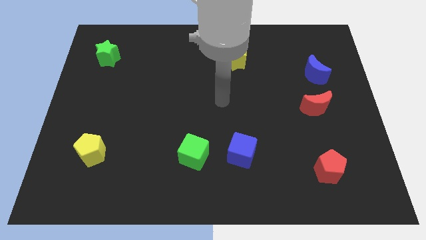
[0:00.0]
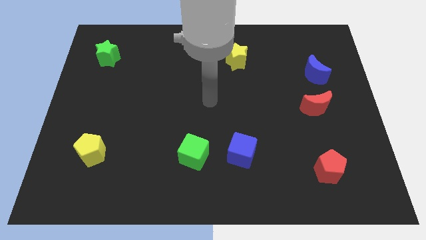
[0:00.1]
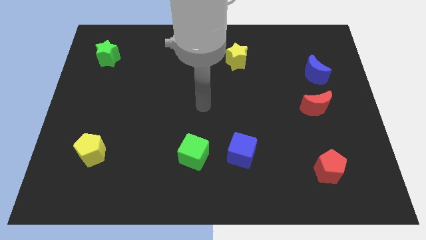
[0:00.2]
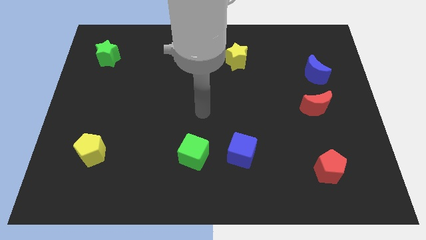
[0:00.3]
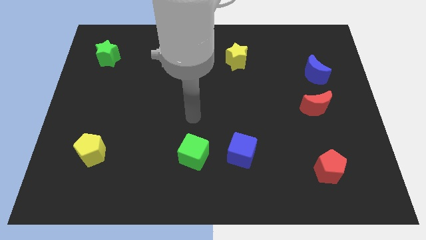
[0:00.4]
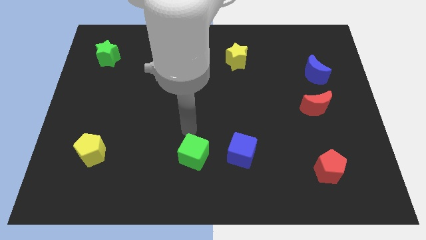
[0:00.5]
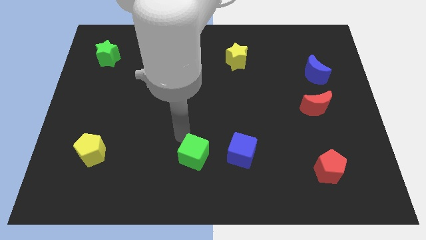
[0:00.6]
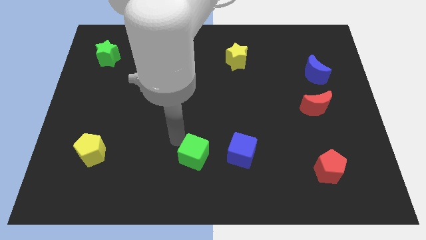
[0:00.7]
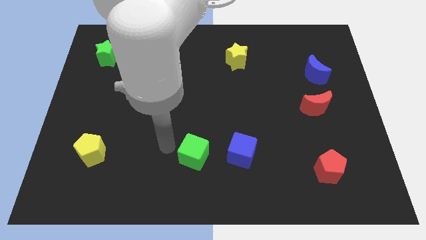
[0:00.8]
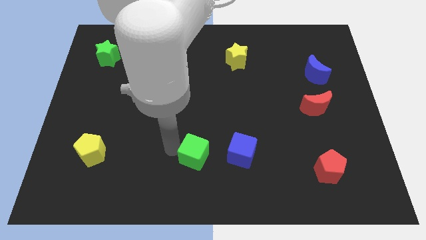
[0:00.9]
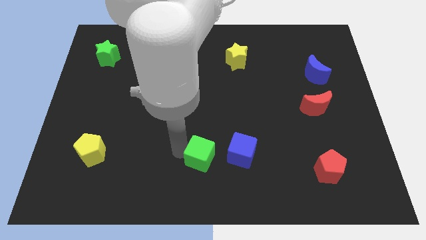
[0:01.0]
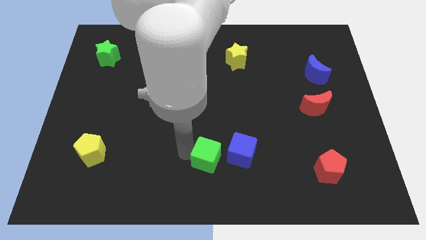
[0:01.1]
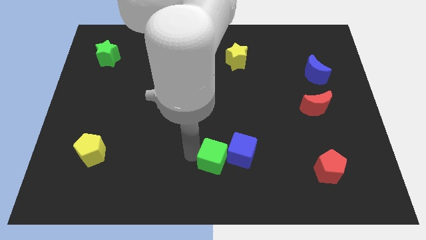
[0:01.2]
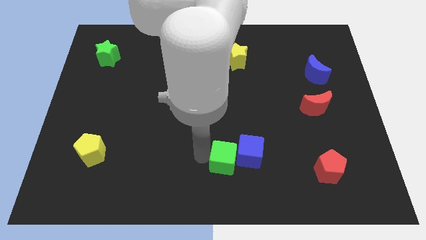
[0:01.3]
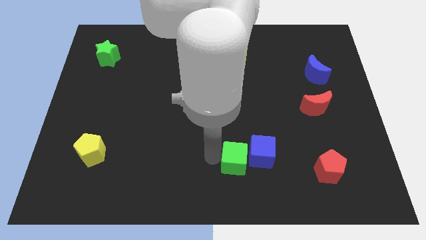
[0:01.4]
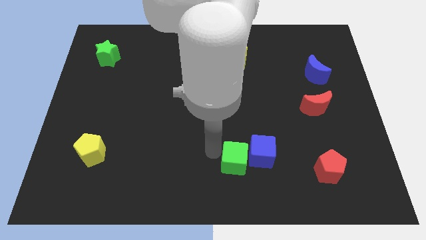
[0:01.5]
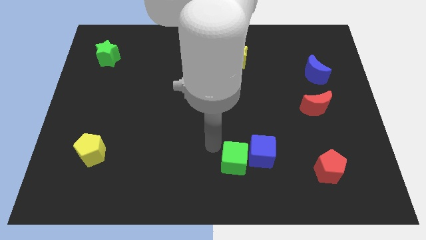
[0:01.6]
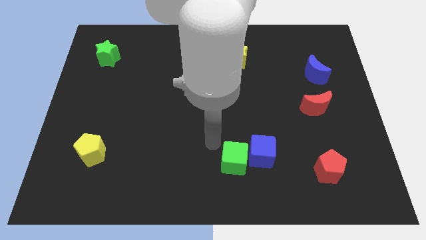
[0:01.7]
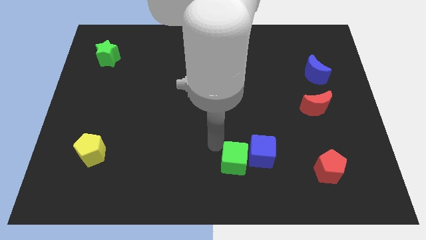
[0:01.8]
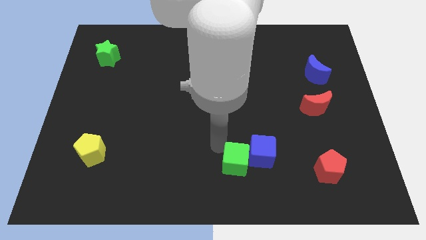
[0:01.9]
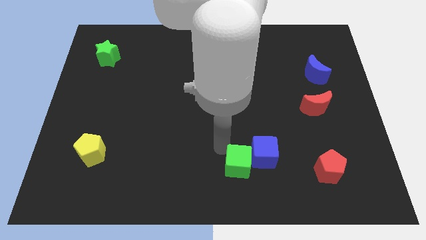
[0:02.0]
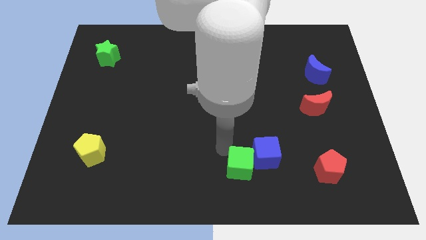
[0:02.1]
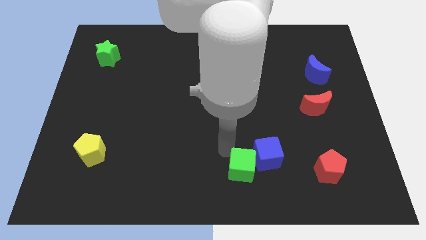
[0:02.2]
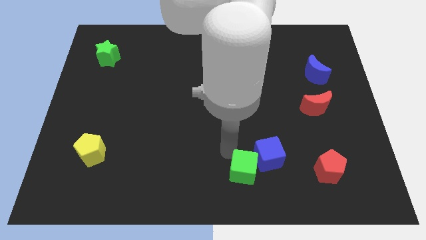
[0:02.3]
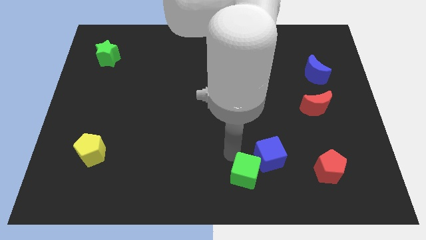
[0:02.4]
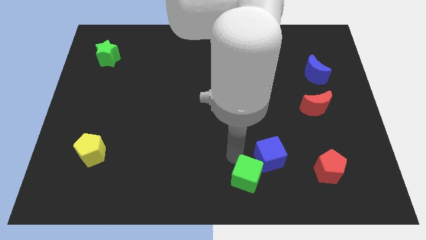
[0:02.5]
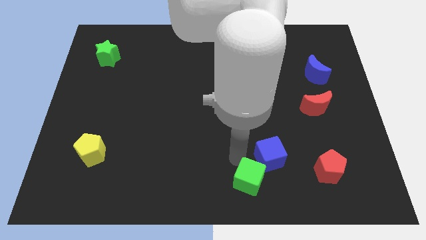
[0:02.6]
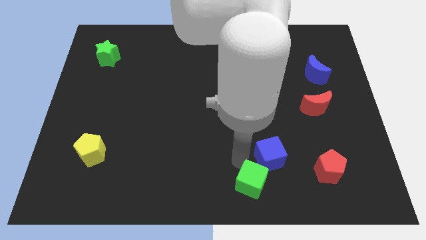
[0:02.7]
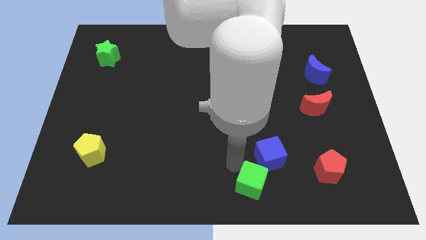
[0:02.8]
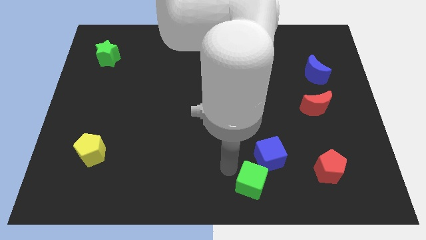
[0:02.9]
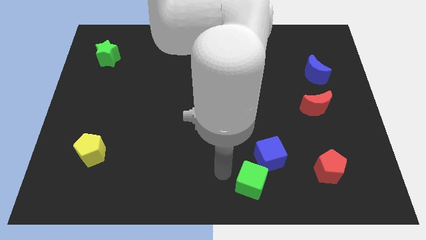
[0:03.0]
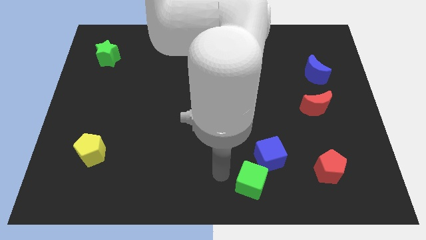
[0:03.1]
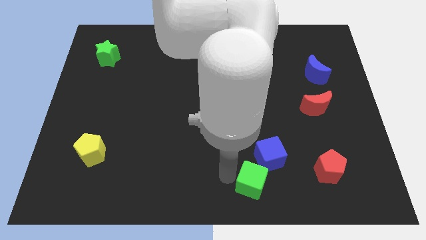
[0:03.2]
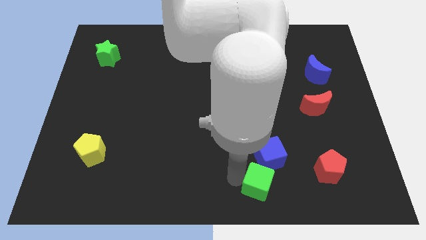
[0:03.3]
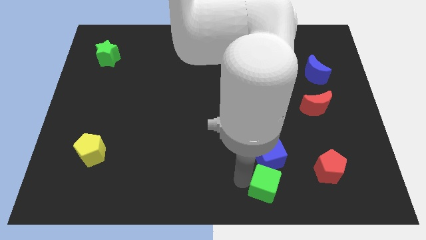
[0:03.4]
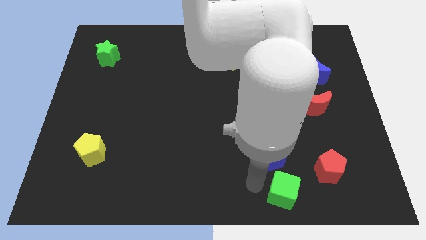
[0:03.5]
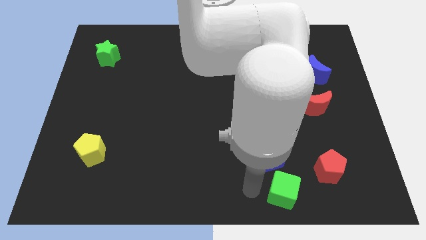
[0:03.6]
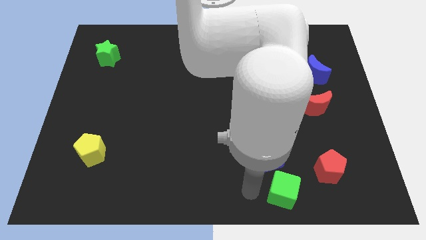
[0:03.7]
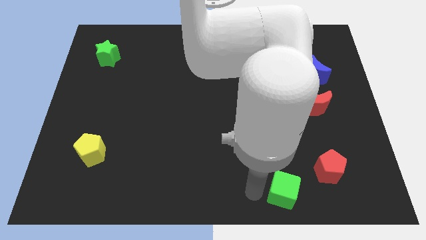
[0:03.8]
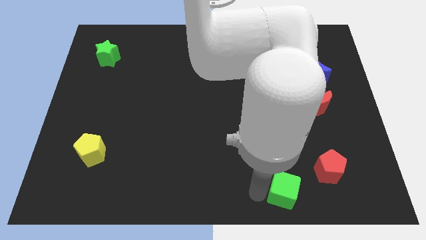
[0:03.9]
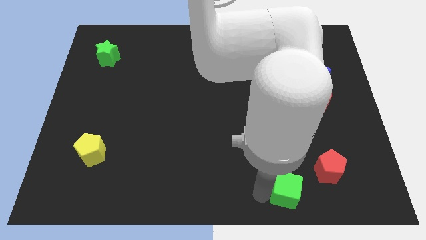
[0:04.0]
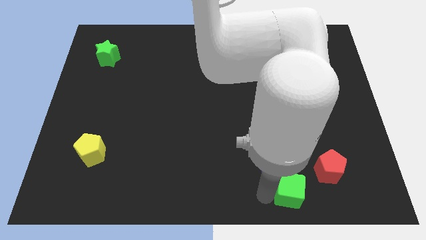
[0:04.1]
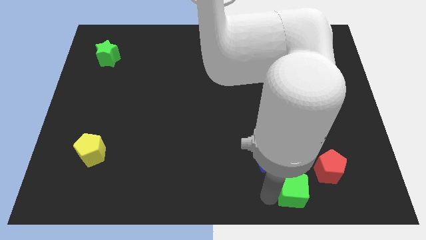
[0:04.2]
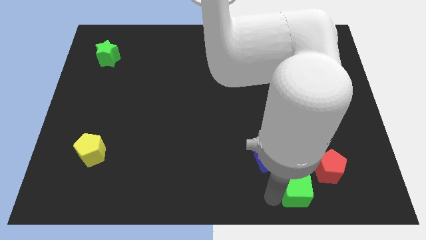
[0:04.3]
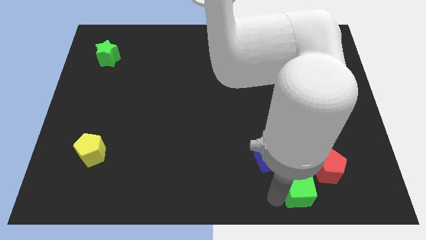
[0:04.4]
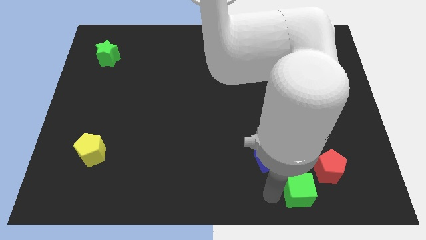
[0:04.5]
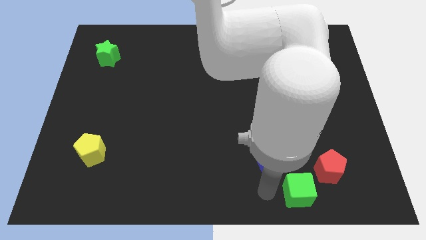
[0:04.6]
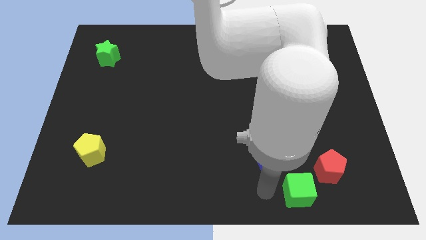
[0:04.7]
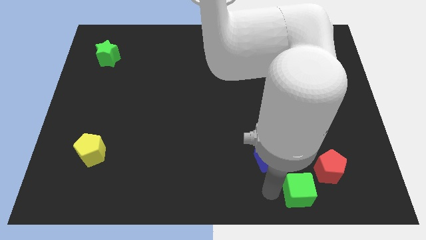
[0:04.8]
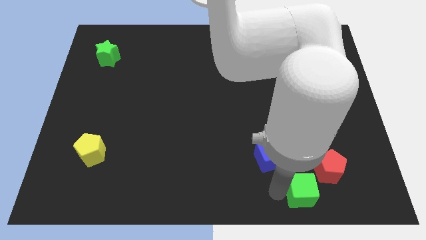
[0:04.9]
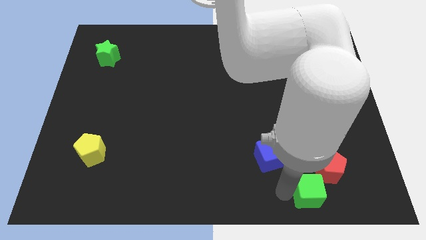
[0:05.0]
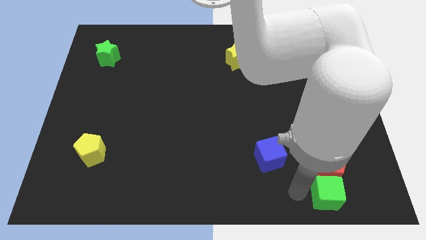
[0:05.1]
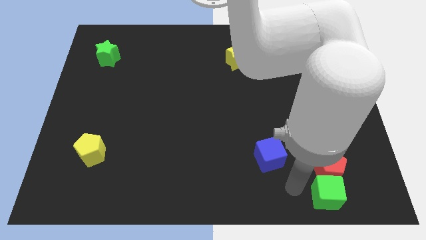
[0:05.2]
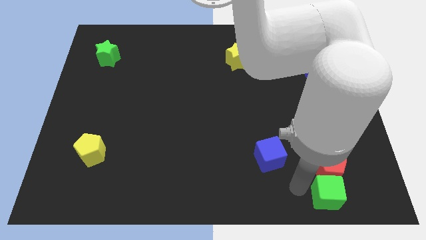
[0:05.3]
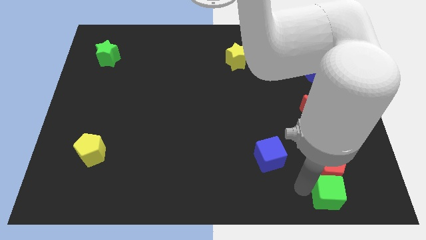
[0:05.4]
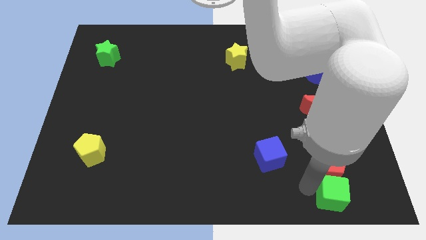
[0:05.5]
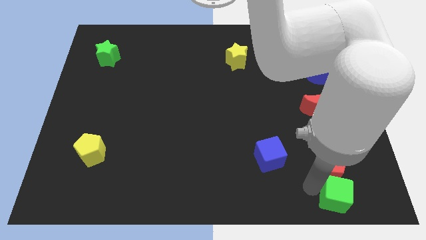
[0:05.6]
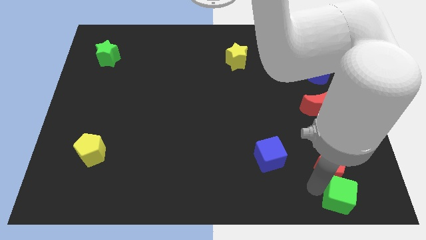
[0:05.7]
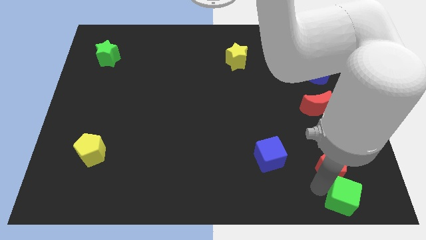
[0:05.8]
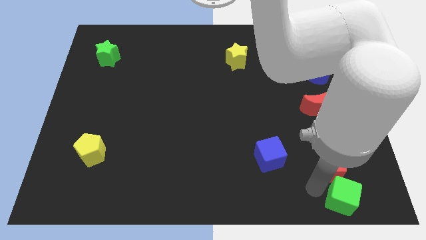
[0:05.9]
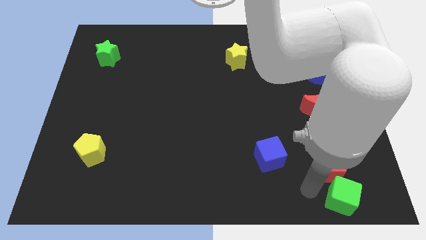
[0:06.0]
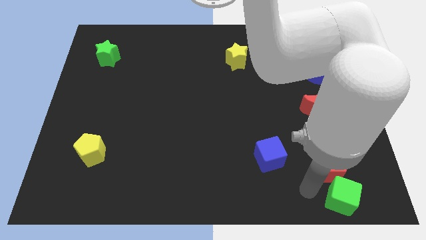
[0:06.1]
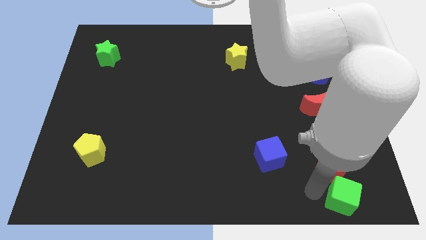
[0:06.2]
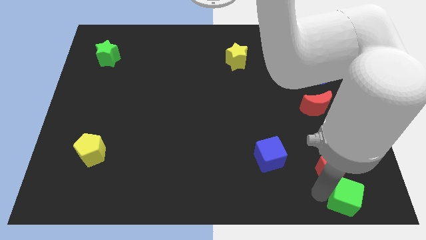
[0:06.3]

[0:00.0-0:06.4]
put the green cube to the bottom right of the board
